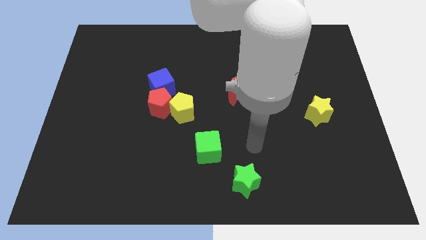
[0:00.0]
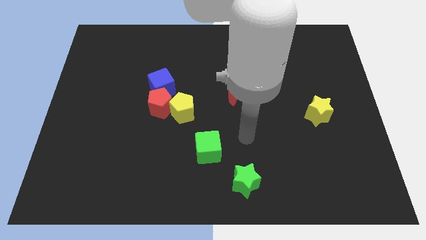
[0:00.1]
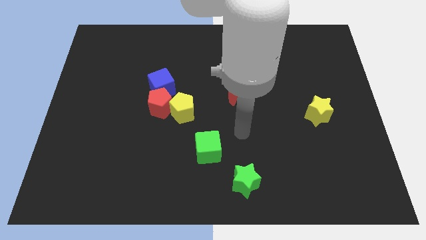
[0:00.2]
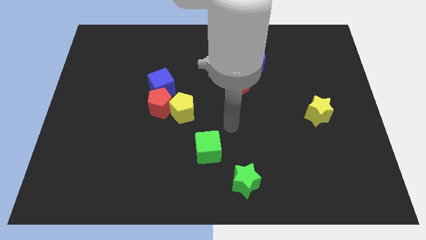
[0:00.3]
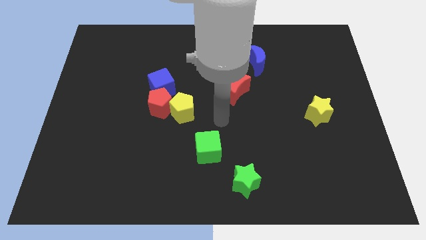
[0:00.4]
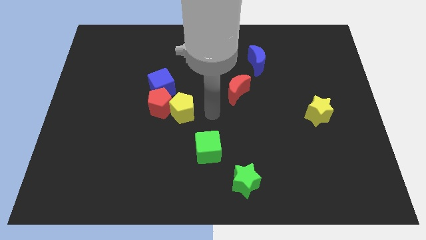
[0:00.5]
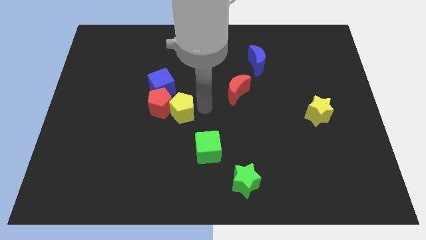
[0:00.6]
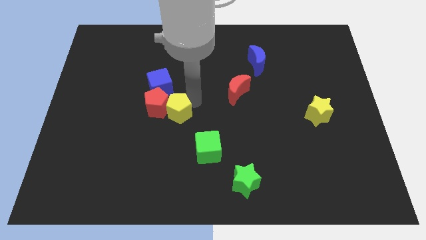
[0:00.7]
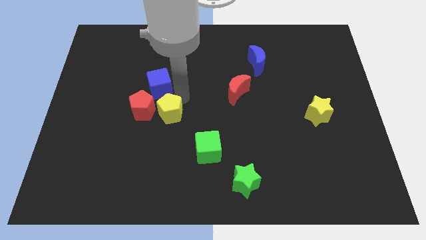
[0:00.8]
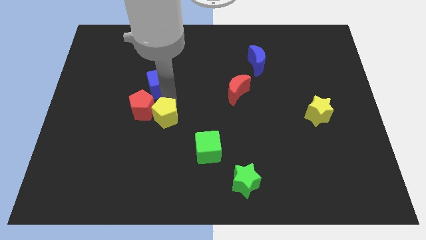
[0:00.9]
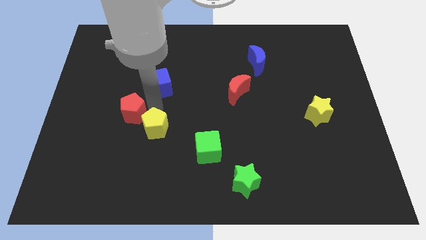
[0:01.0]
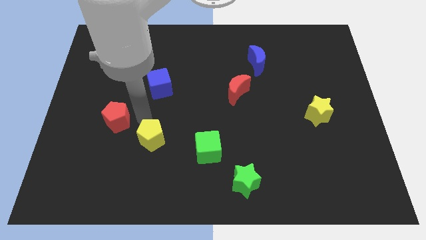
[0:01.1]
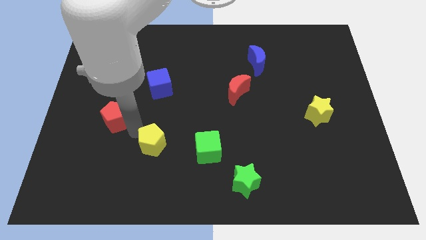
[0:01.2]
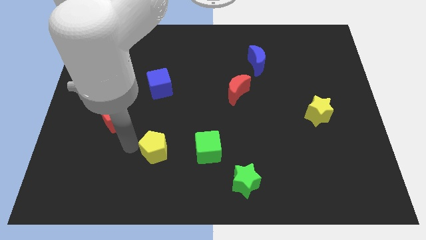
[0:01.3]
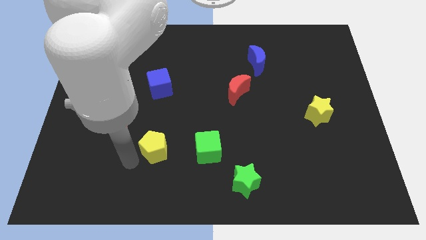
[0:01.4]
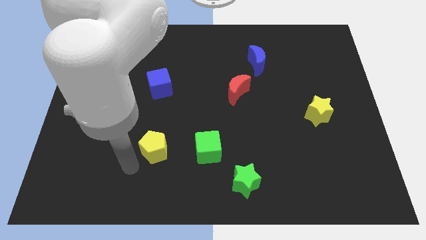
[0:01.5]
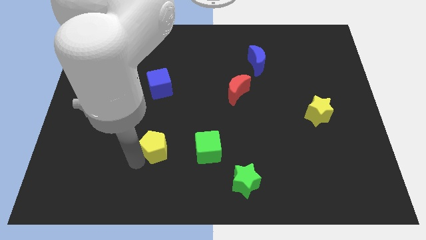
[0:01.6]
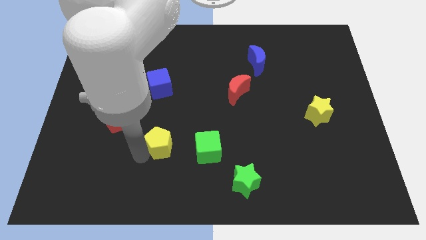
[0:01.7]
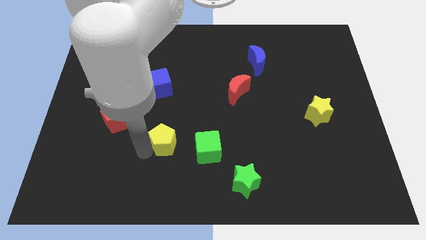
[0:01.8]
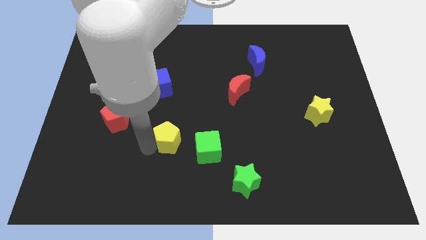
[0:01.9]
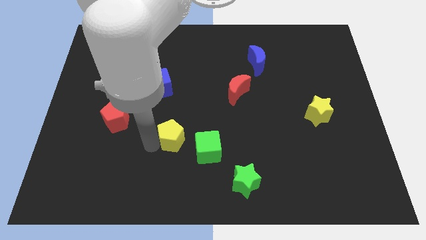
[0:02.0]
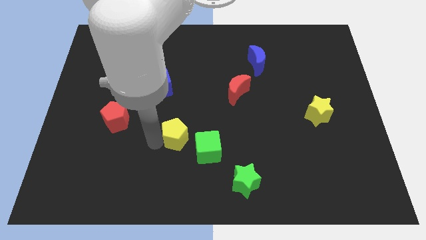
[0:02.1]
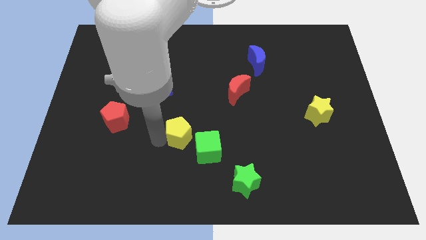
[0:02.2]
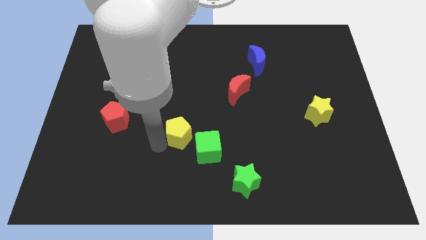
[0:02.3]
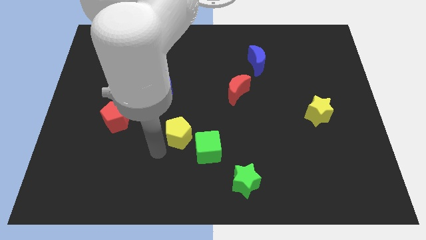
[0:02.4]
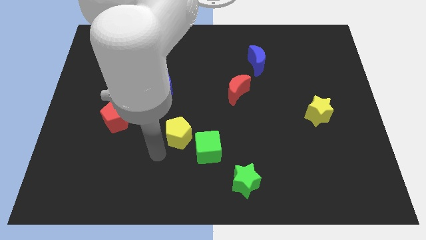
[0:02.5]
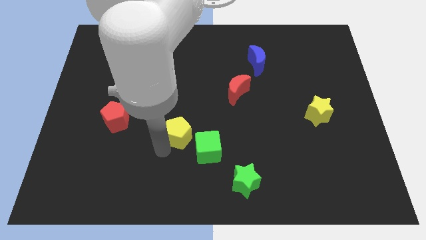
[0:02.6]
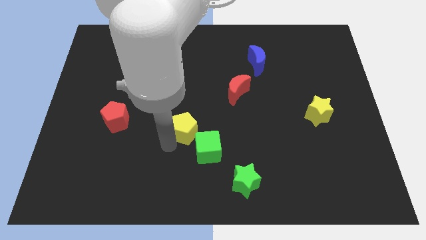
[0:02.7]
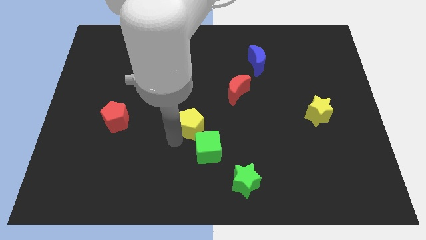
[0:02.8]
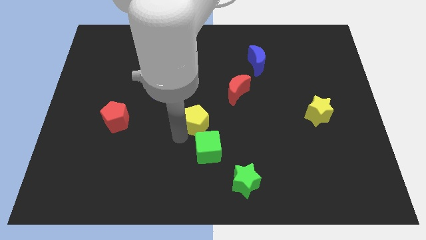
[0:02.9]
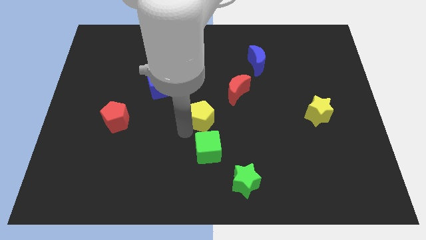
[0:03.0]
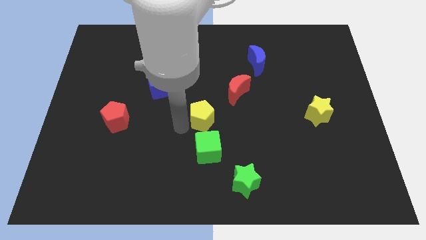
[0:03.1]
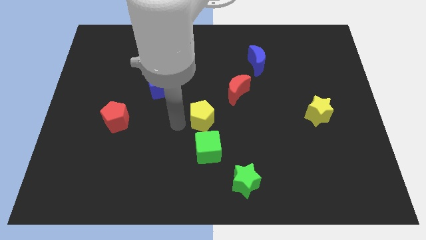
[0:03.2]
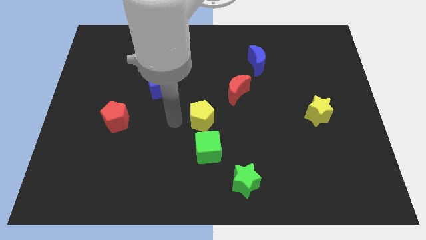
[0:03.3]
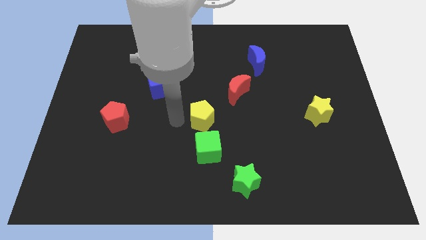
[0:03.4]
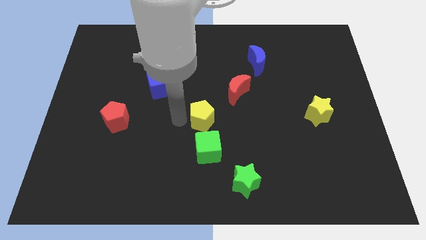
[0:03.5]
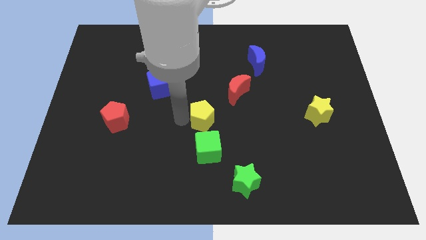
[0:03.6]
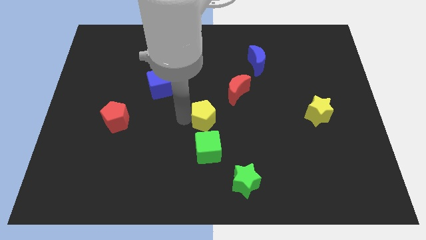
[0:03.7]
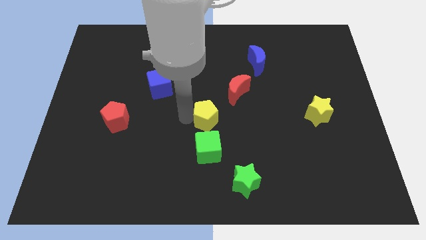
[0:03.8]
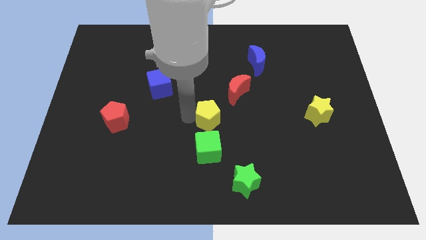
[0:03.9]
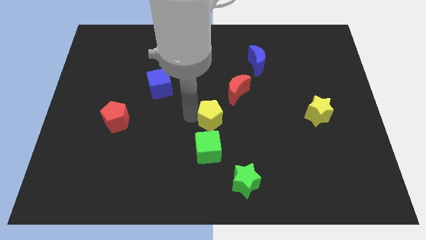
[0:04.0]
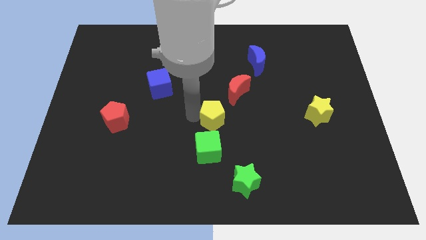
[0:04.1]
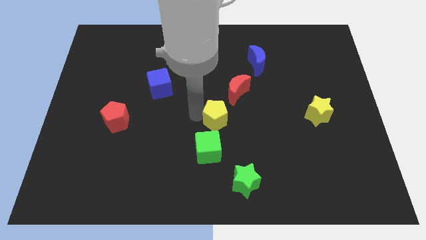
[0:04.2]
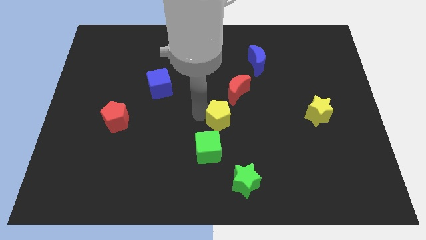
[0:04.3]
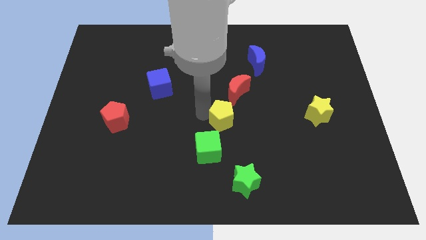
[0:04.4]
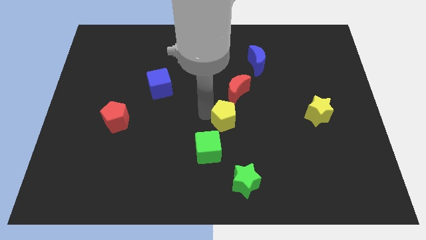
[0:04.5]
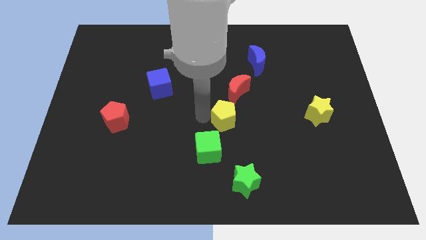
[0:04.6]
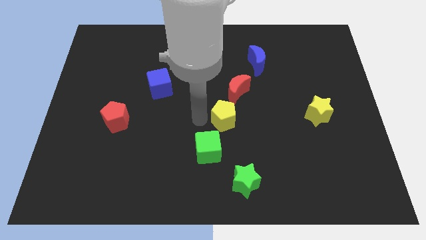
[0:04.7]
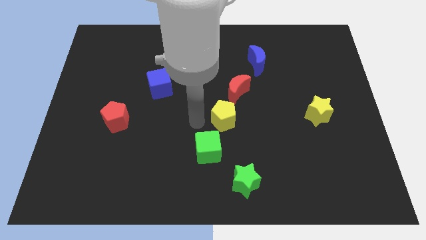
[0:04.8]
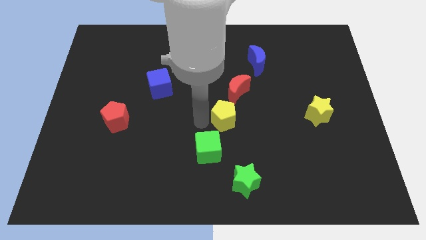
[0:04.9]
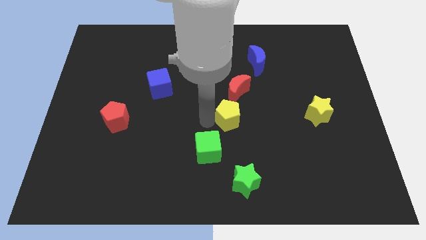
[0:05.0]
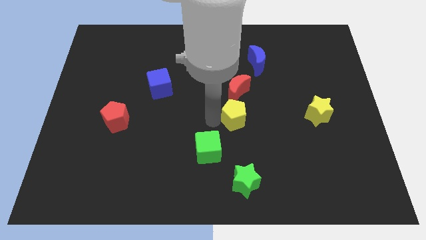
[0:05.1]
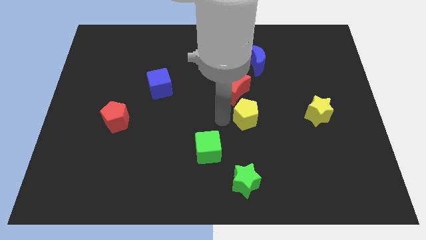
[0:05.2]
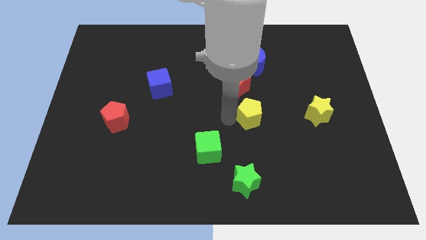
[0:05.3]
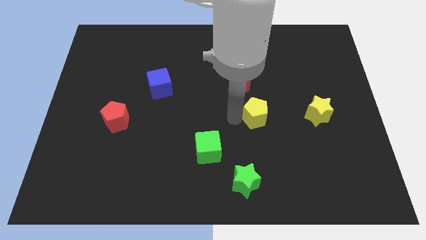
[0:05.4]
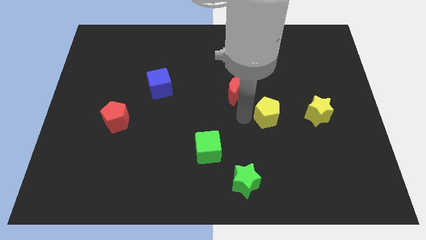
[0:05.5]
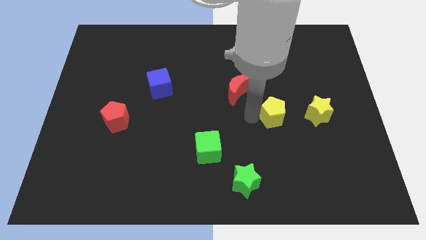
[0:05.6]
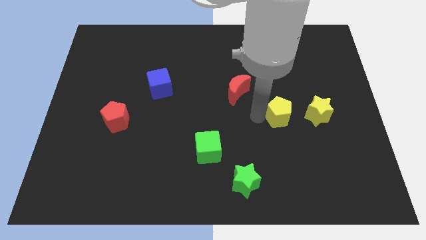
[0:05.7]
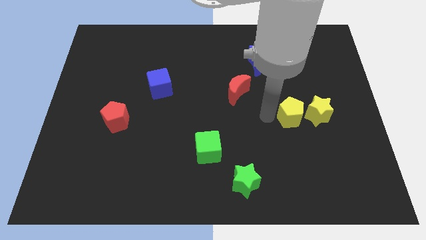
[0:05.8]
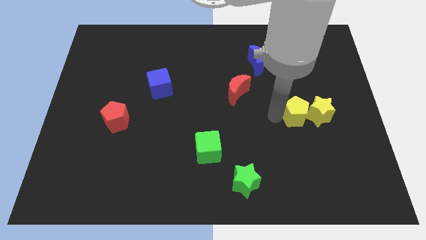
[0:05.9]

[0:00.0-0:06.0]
push the yellow pentagon towards the yellow star

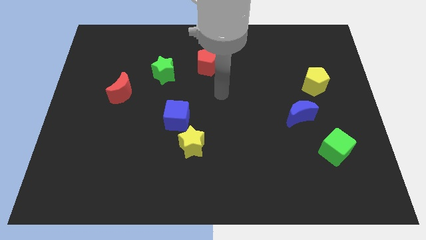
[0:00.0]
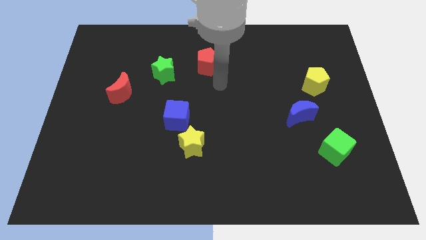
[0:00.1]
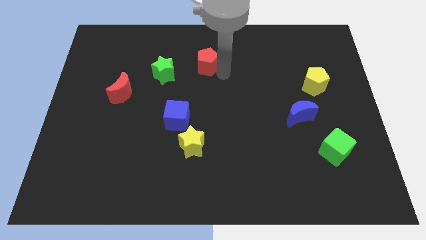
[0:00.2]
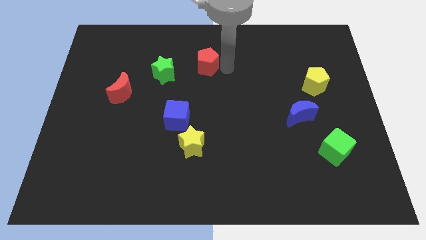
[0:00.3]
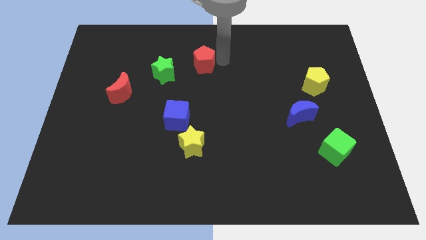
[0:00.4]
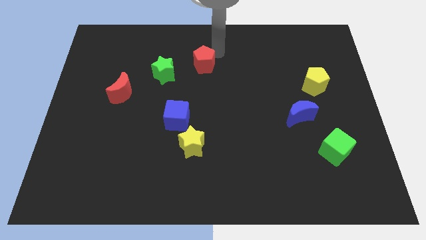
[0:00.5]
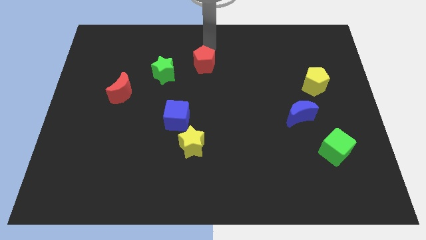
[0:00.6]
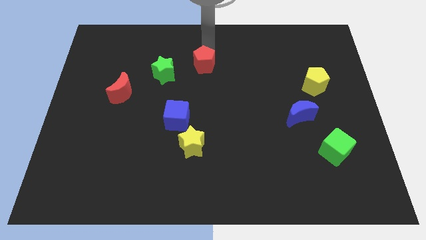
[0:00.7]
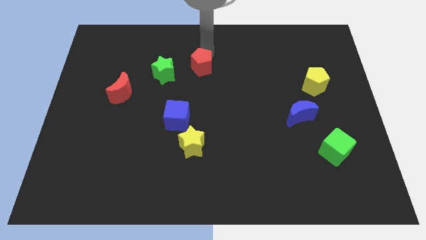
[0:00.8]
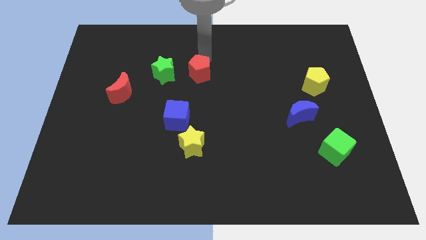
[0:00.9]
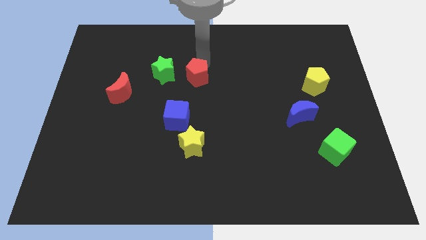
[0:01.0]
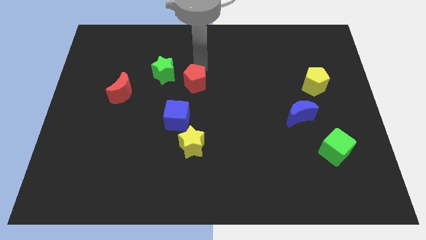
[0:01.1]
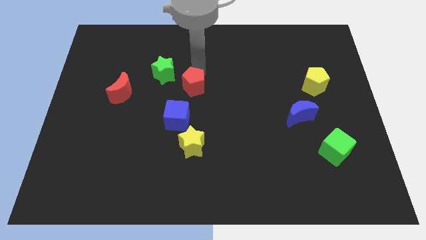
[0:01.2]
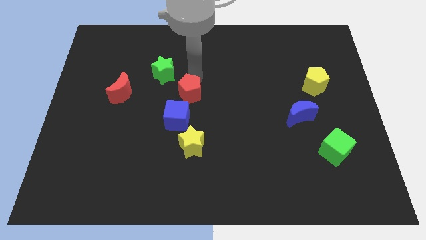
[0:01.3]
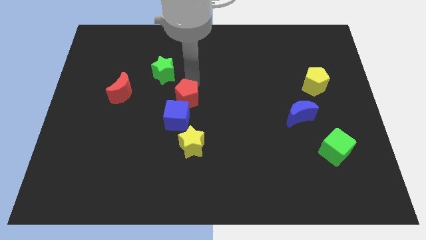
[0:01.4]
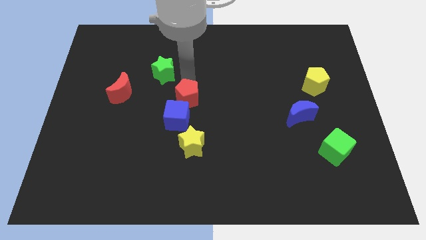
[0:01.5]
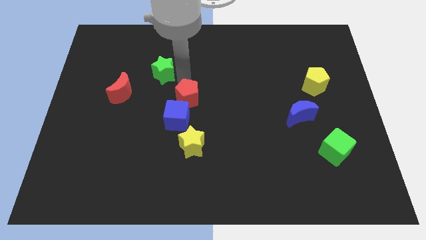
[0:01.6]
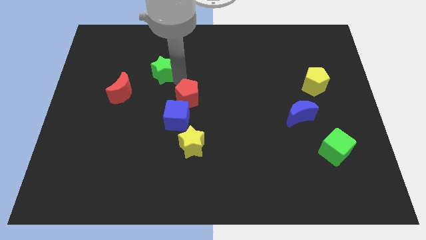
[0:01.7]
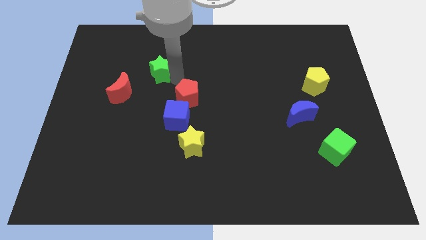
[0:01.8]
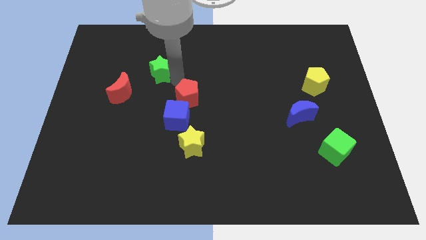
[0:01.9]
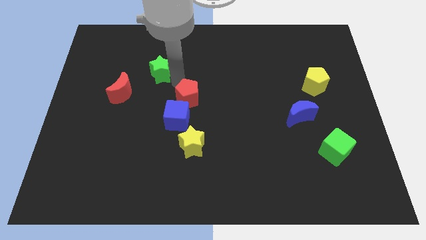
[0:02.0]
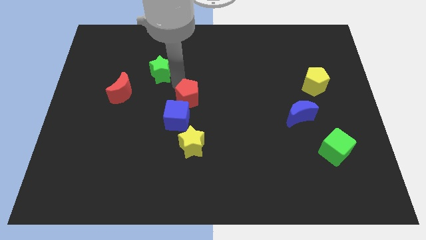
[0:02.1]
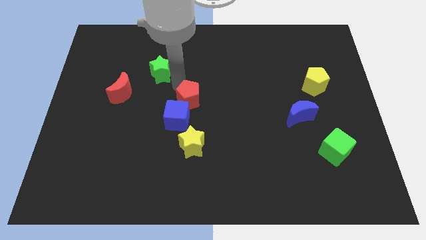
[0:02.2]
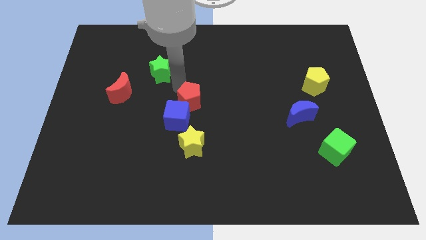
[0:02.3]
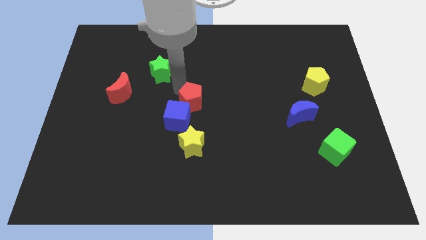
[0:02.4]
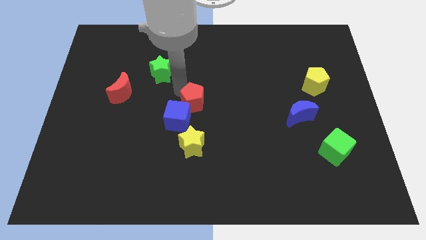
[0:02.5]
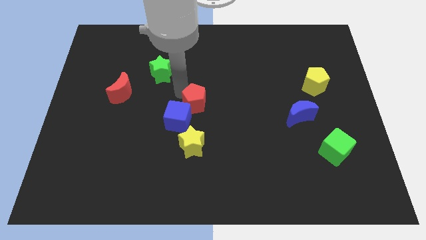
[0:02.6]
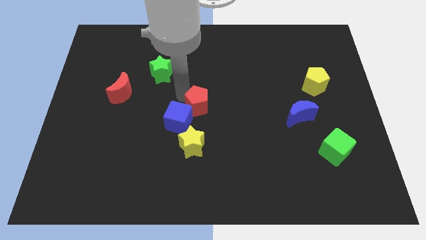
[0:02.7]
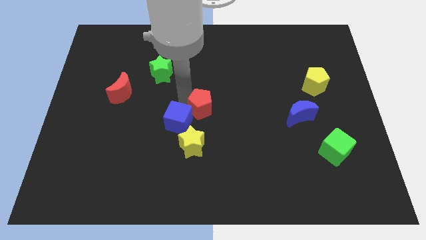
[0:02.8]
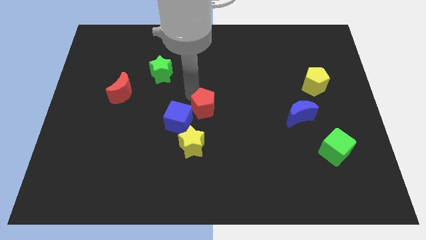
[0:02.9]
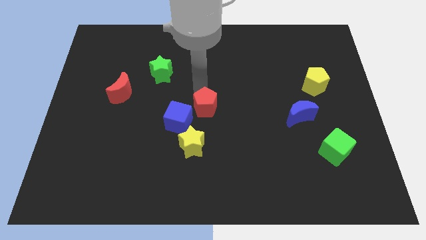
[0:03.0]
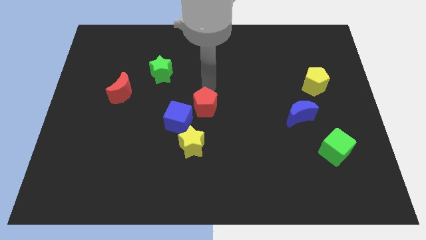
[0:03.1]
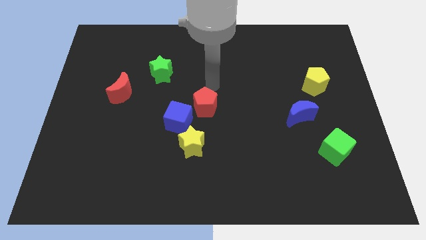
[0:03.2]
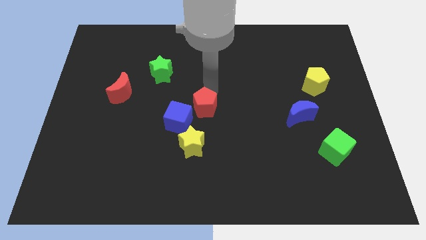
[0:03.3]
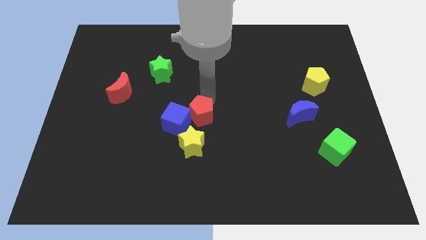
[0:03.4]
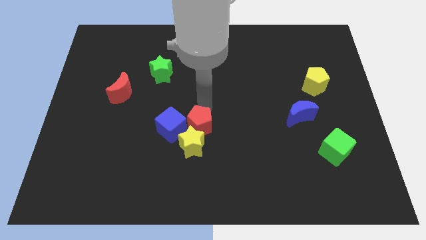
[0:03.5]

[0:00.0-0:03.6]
move the red pentagon to the yellow star
